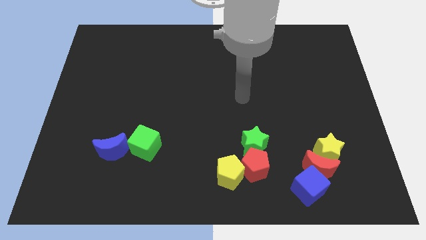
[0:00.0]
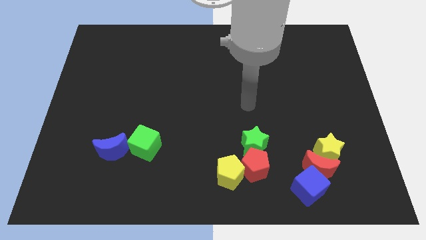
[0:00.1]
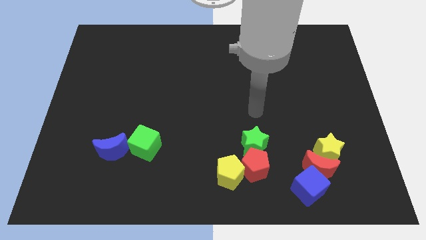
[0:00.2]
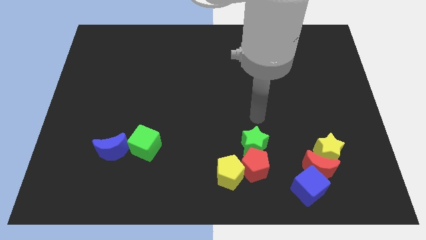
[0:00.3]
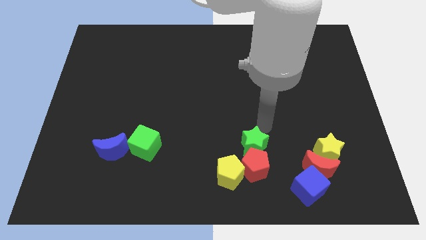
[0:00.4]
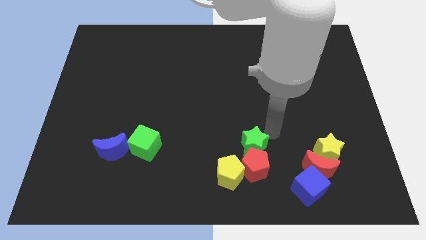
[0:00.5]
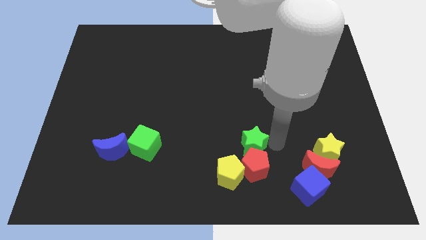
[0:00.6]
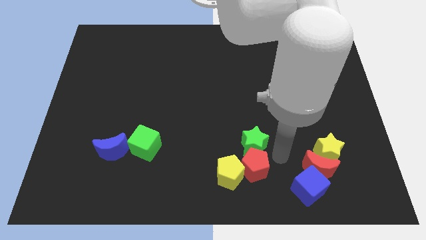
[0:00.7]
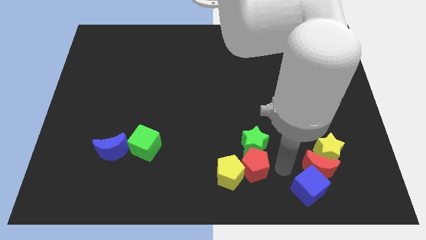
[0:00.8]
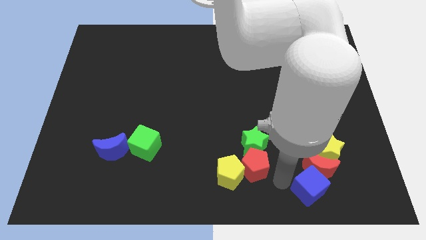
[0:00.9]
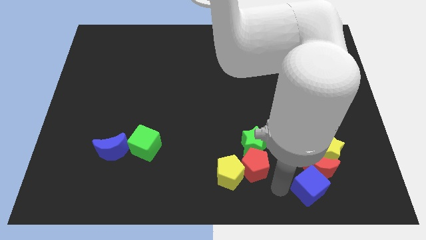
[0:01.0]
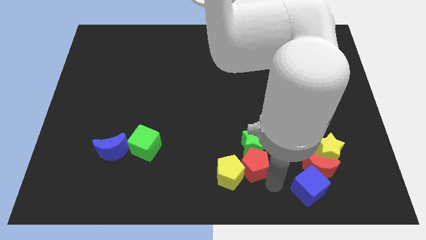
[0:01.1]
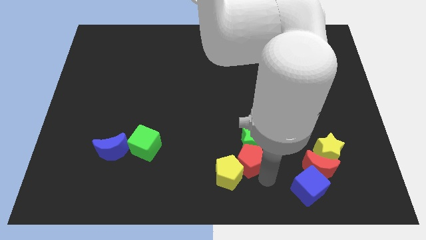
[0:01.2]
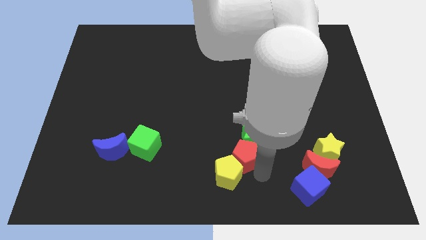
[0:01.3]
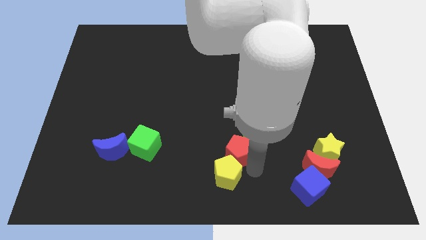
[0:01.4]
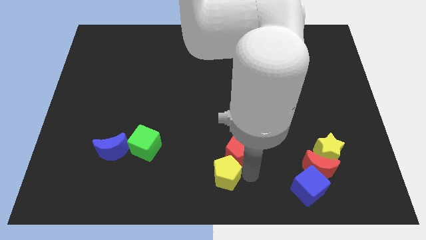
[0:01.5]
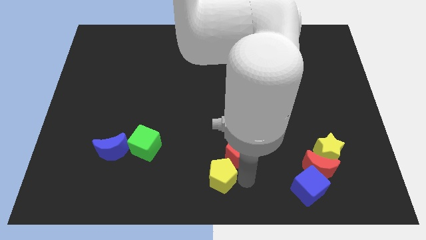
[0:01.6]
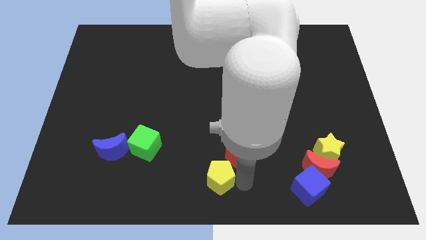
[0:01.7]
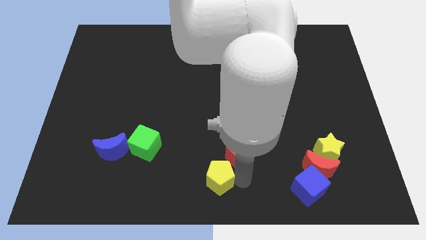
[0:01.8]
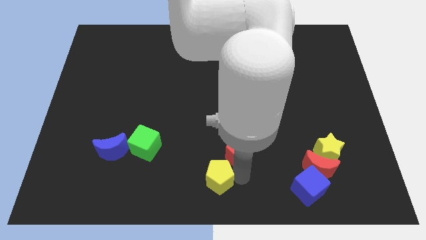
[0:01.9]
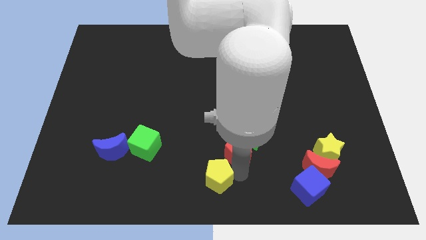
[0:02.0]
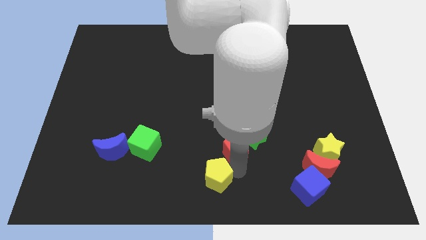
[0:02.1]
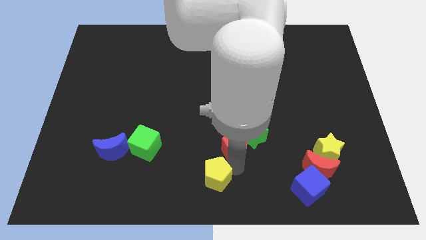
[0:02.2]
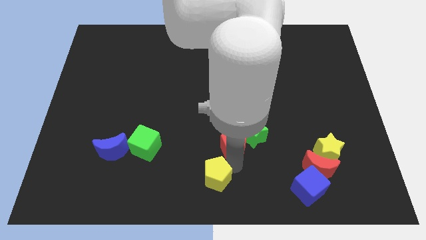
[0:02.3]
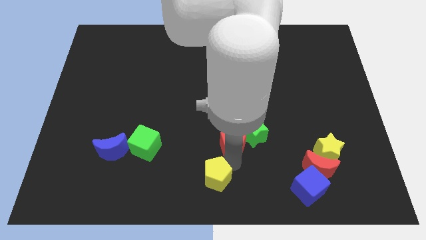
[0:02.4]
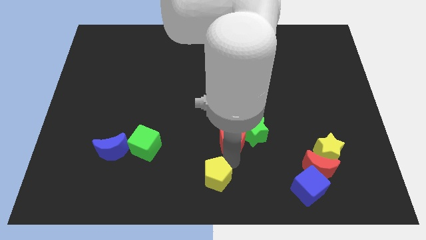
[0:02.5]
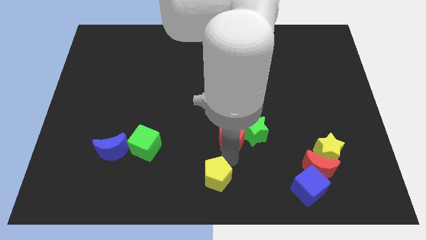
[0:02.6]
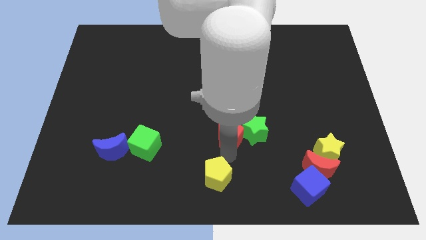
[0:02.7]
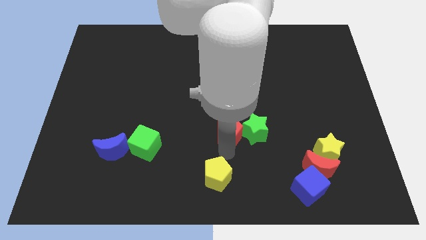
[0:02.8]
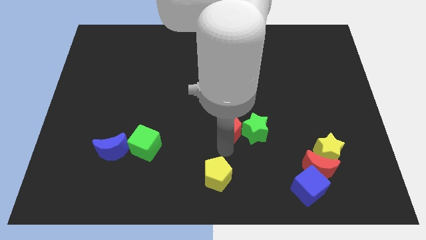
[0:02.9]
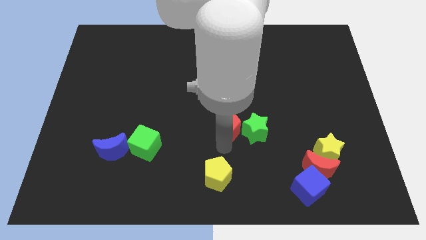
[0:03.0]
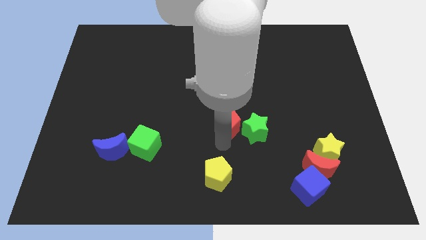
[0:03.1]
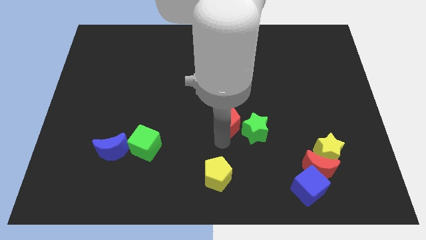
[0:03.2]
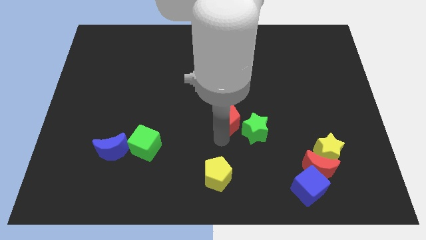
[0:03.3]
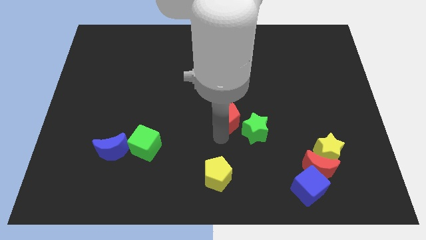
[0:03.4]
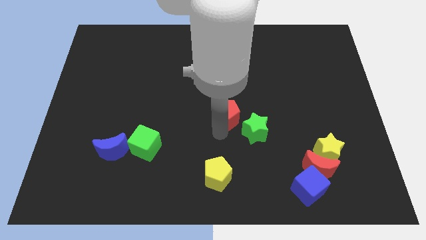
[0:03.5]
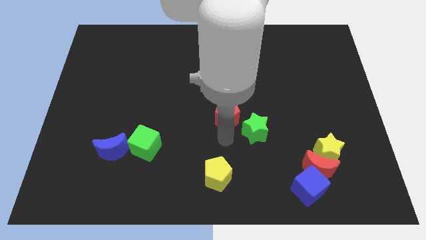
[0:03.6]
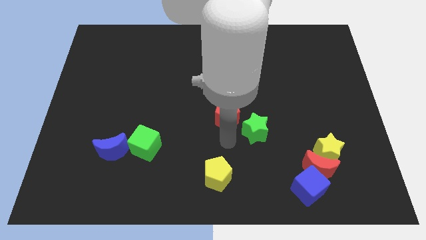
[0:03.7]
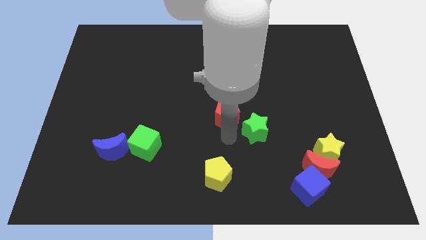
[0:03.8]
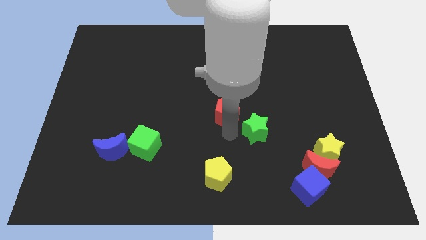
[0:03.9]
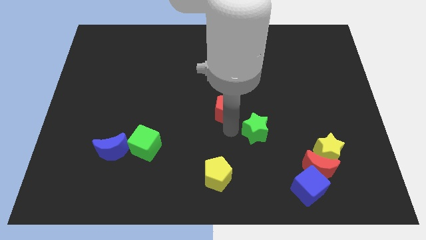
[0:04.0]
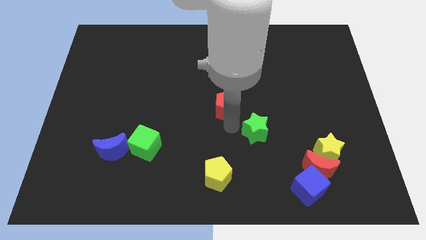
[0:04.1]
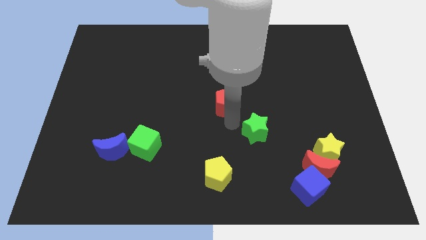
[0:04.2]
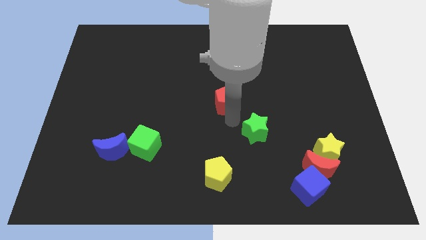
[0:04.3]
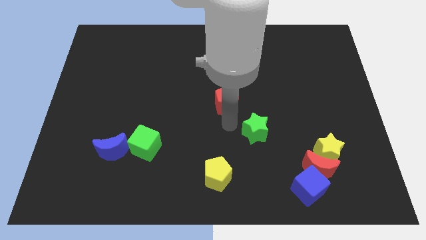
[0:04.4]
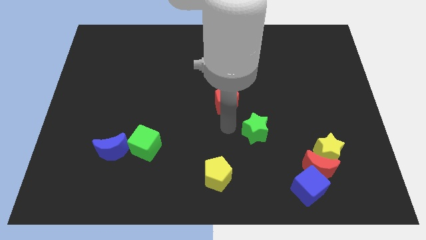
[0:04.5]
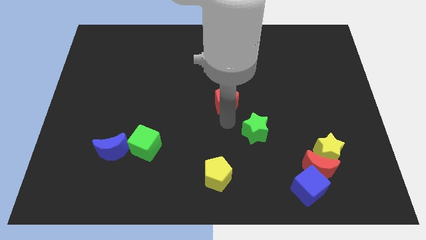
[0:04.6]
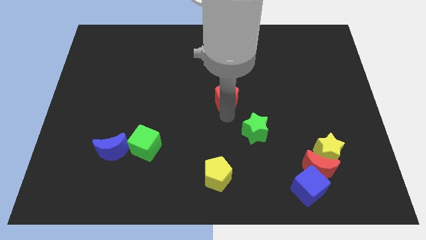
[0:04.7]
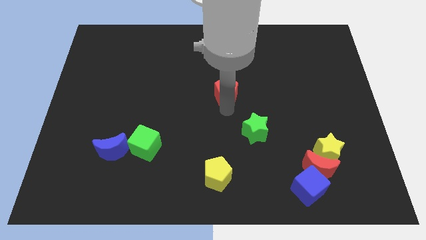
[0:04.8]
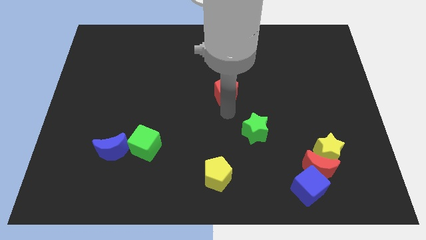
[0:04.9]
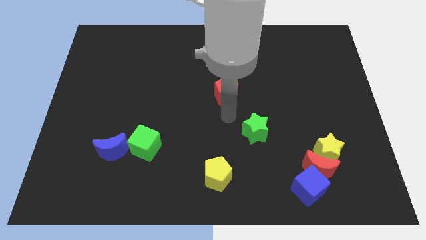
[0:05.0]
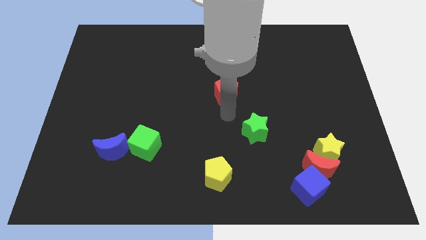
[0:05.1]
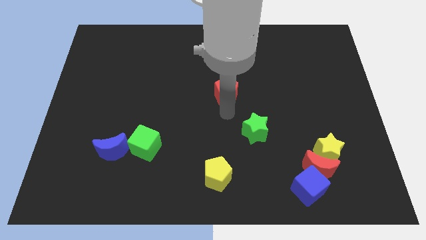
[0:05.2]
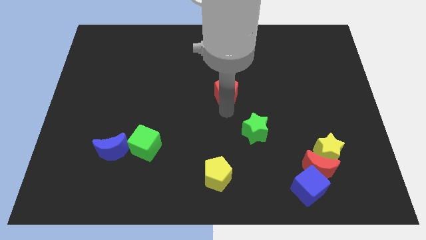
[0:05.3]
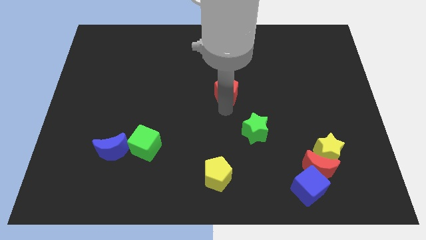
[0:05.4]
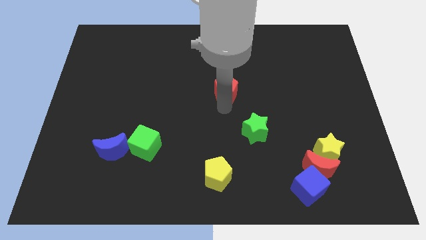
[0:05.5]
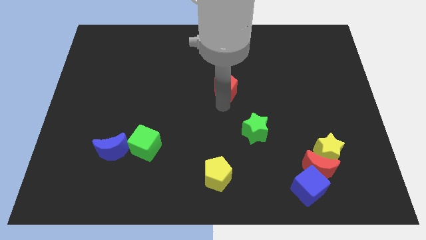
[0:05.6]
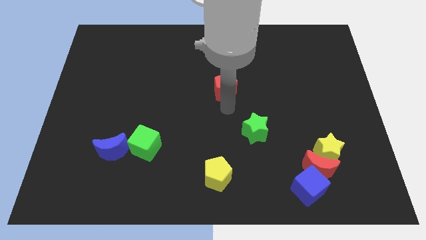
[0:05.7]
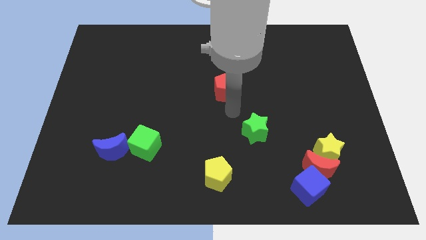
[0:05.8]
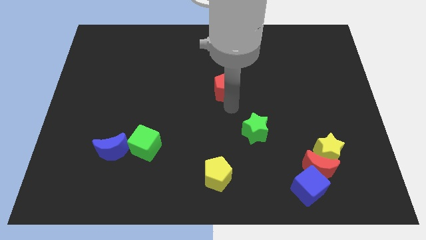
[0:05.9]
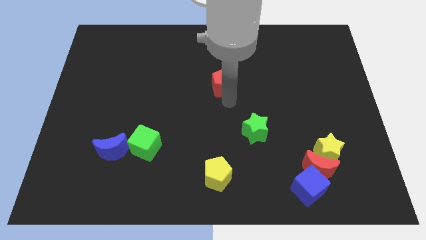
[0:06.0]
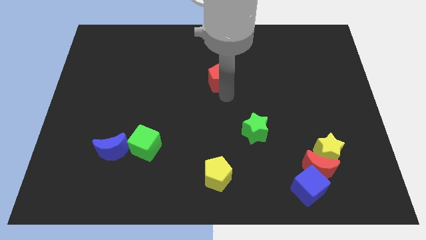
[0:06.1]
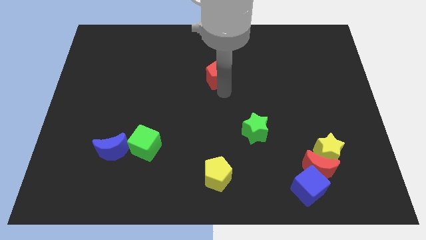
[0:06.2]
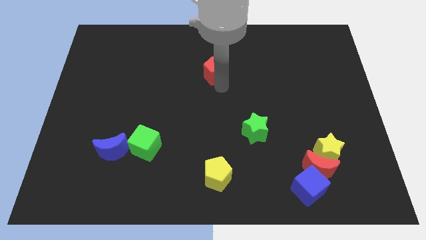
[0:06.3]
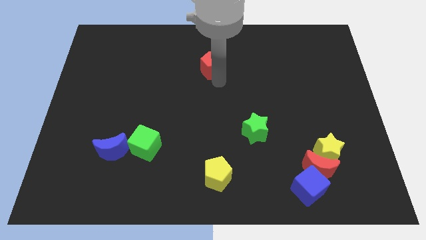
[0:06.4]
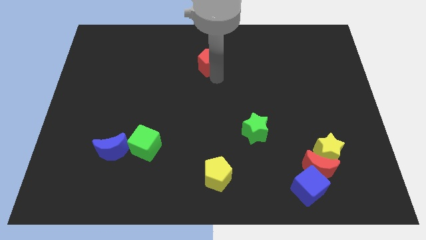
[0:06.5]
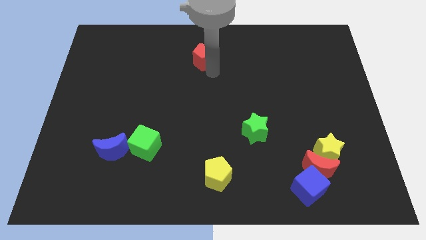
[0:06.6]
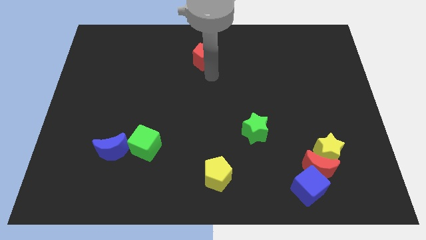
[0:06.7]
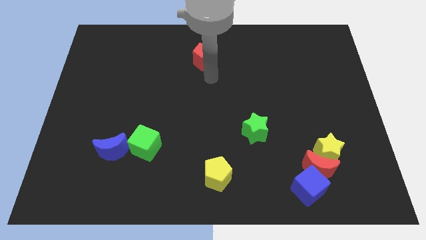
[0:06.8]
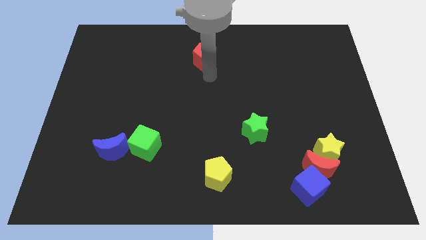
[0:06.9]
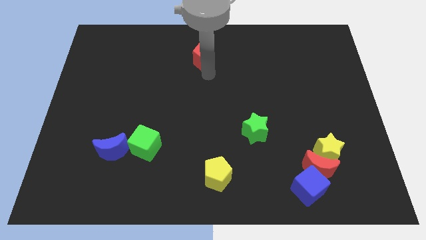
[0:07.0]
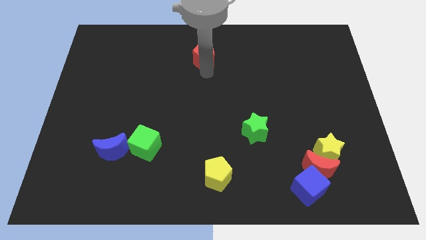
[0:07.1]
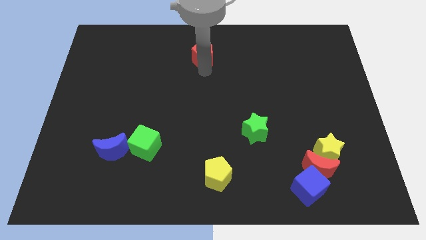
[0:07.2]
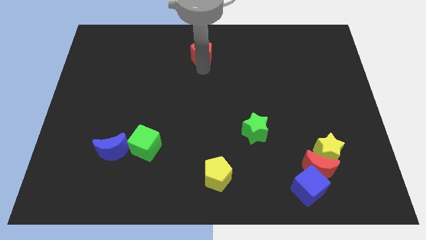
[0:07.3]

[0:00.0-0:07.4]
put the red pentagon to the top side
